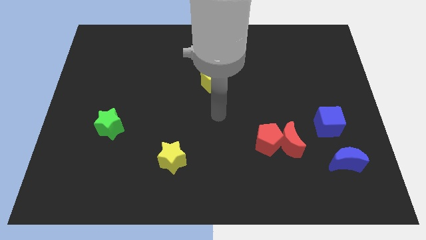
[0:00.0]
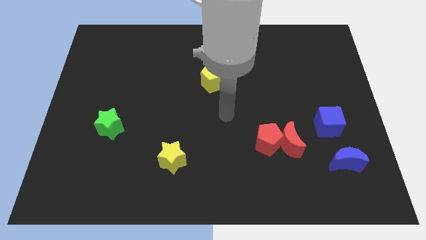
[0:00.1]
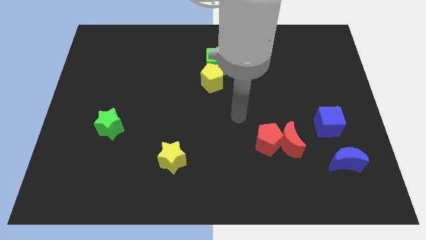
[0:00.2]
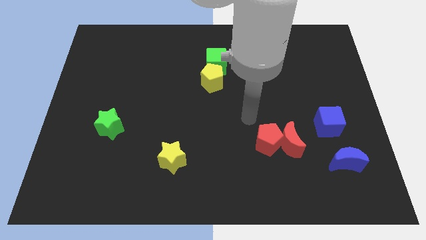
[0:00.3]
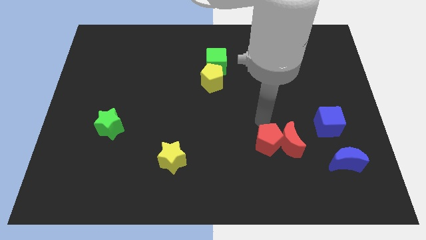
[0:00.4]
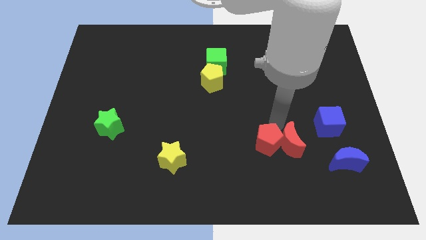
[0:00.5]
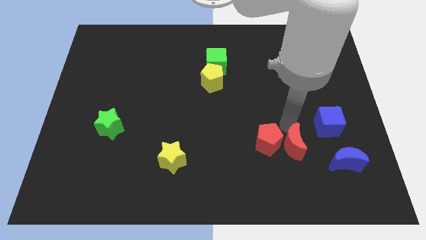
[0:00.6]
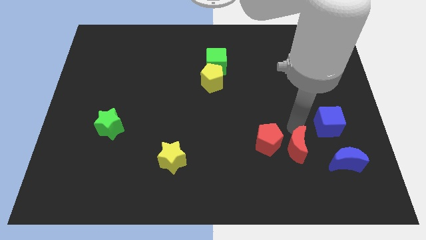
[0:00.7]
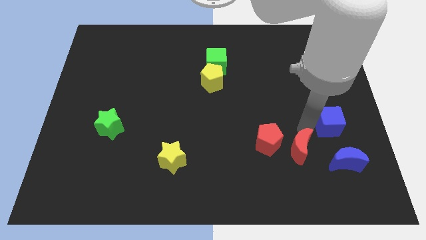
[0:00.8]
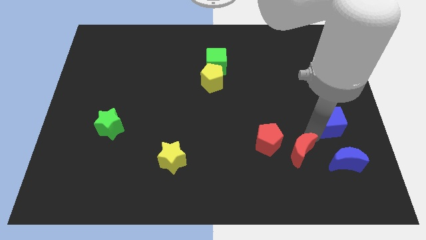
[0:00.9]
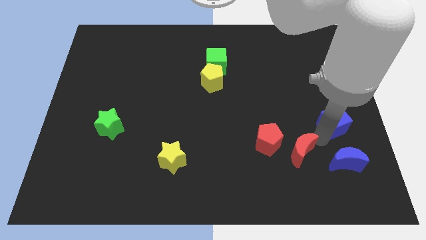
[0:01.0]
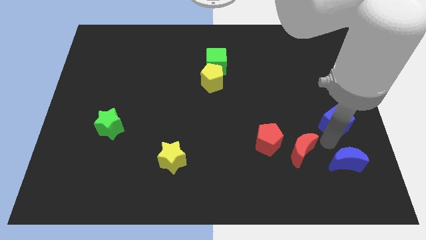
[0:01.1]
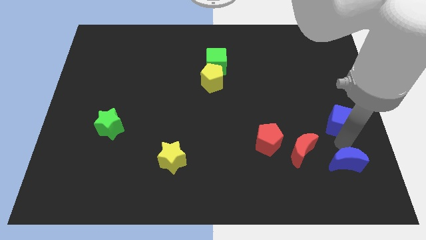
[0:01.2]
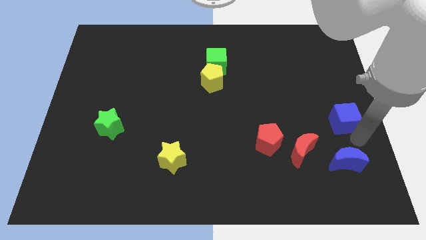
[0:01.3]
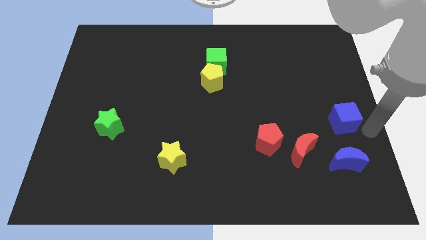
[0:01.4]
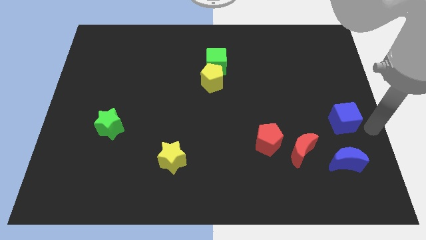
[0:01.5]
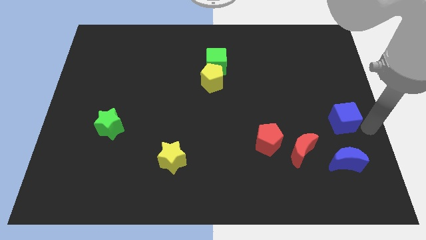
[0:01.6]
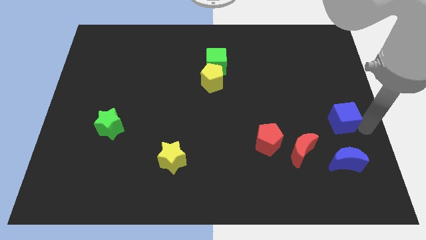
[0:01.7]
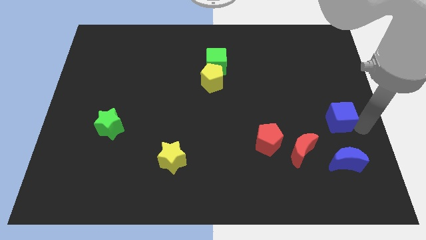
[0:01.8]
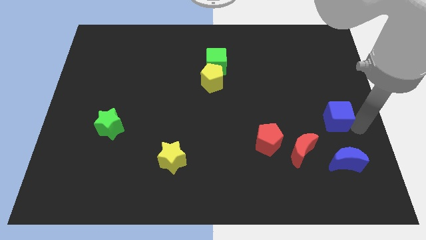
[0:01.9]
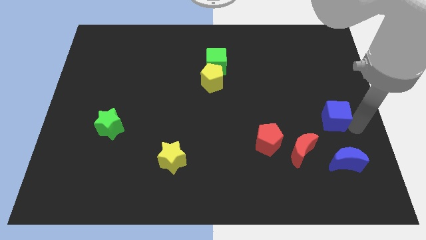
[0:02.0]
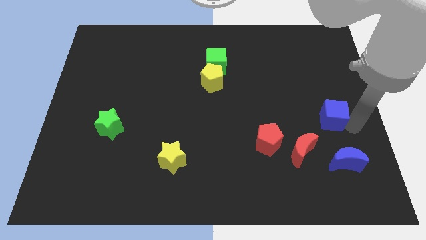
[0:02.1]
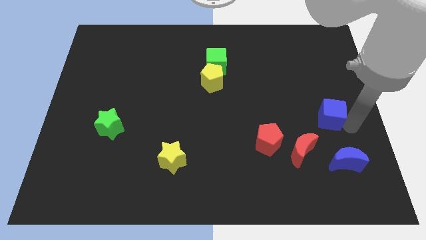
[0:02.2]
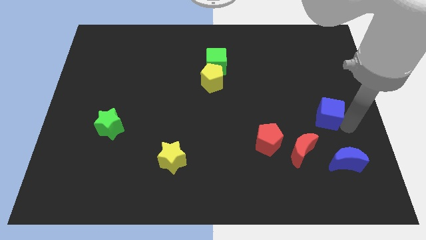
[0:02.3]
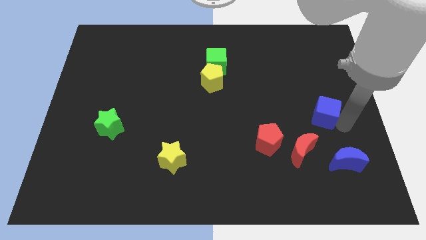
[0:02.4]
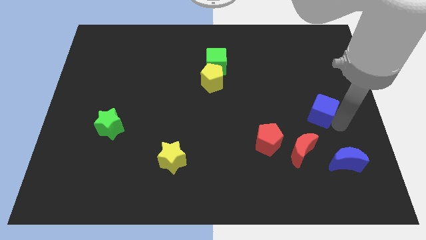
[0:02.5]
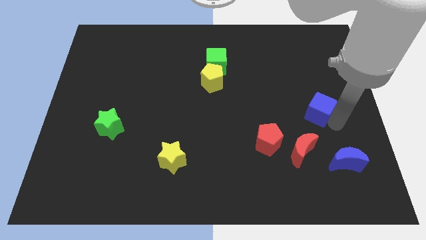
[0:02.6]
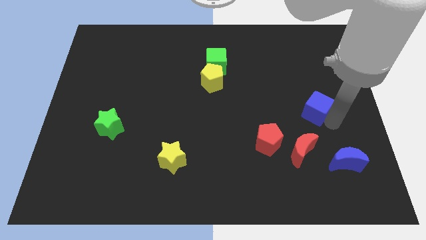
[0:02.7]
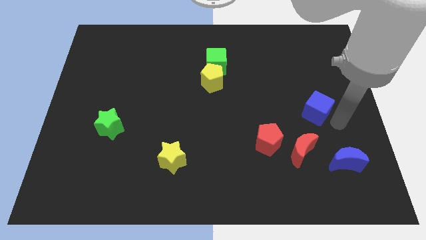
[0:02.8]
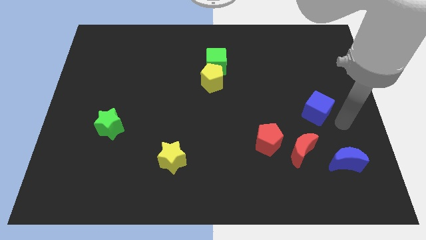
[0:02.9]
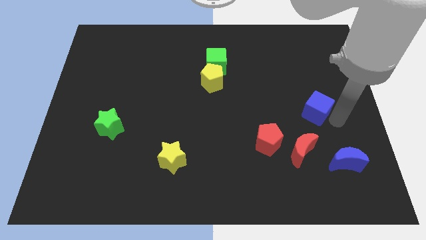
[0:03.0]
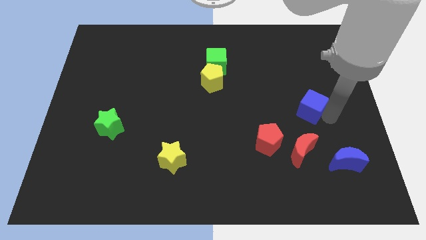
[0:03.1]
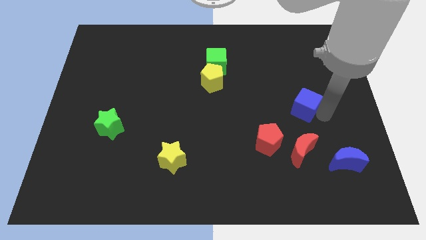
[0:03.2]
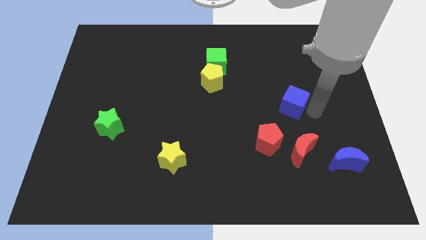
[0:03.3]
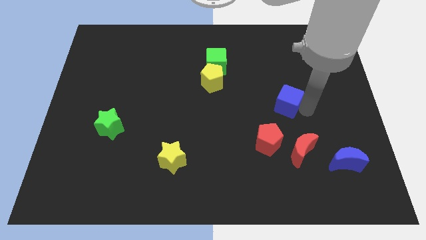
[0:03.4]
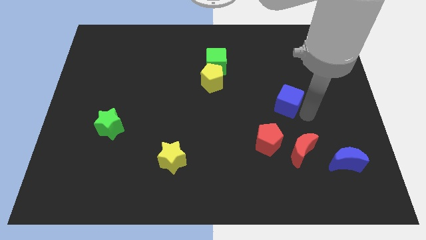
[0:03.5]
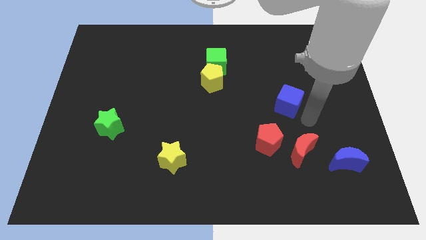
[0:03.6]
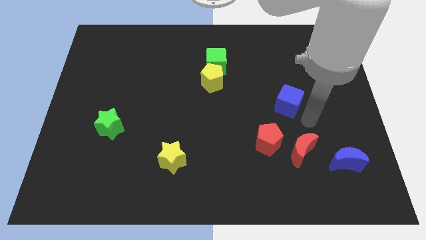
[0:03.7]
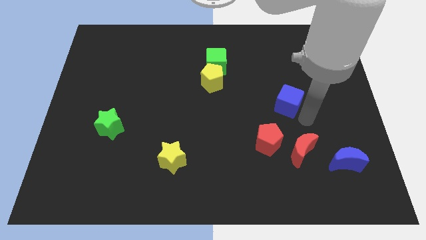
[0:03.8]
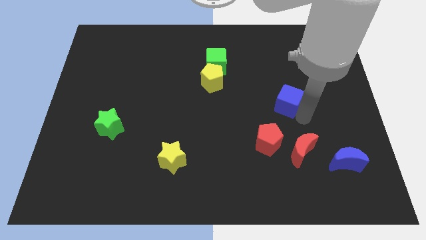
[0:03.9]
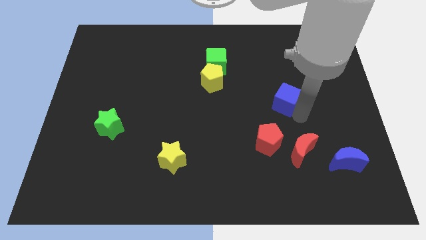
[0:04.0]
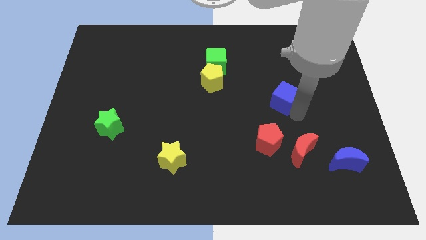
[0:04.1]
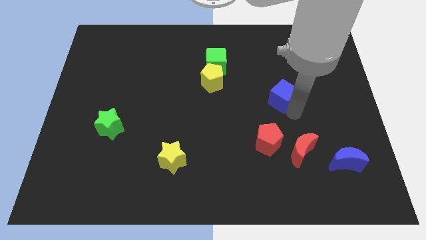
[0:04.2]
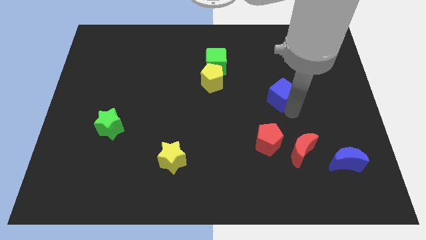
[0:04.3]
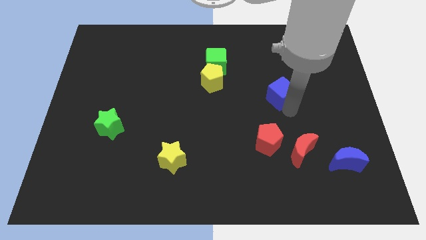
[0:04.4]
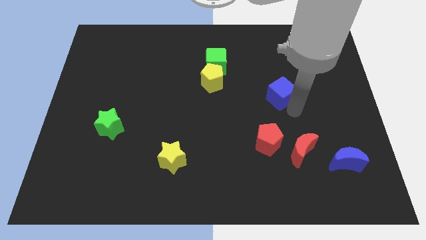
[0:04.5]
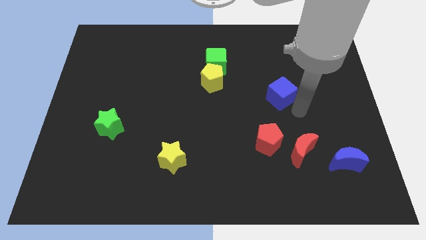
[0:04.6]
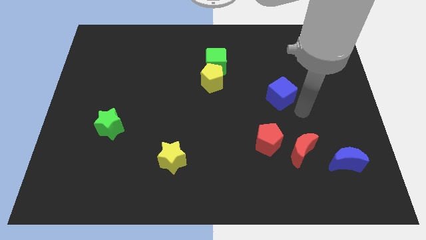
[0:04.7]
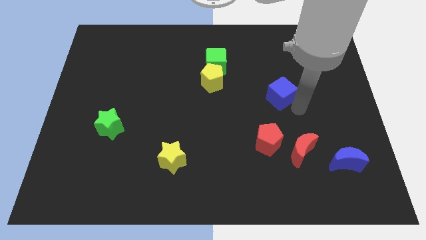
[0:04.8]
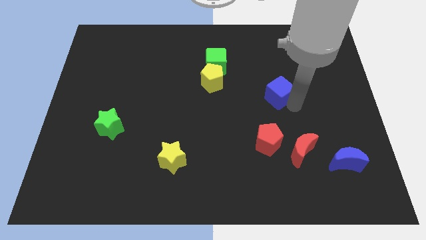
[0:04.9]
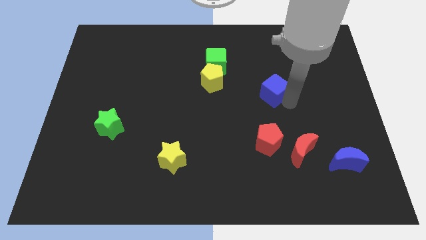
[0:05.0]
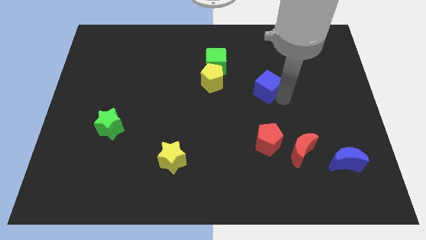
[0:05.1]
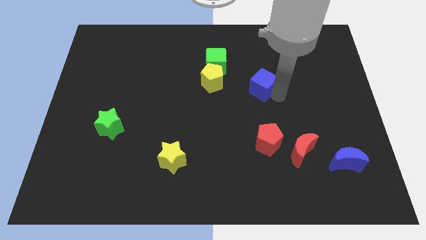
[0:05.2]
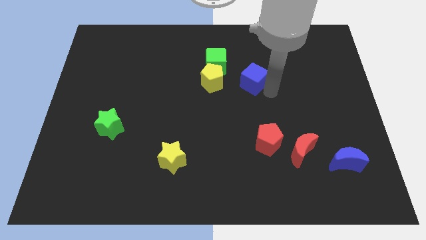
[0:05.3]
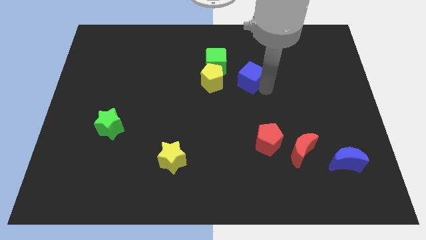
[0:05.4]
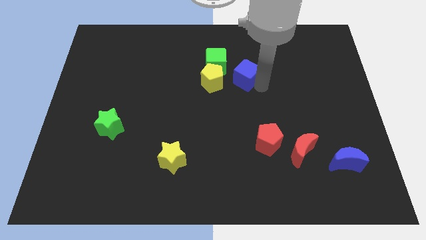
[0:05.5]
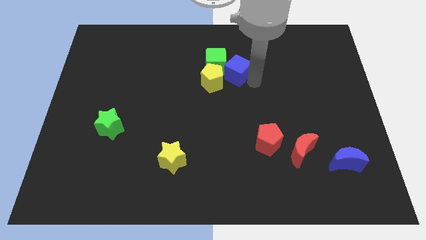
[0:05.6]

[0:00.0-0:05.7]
push the blue cube to the green cube
